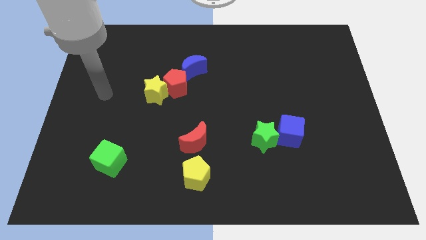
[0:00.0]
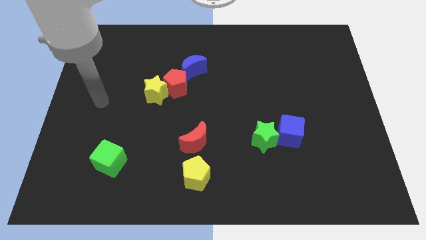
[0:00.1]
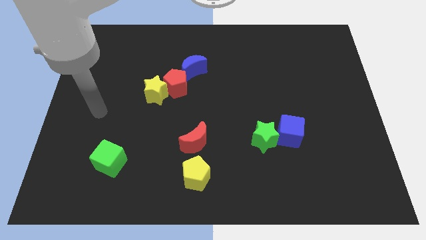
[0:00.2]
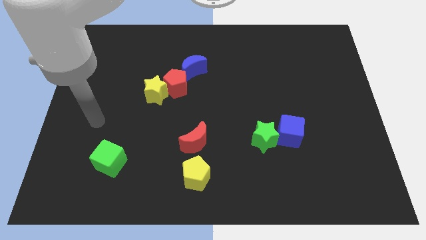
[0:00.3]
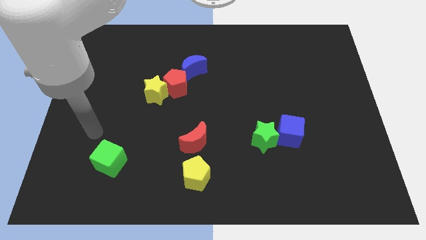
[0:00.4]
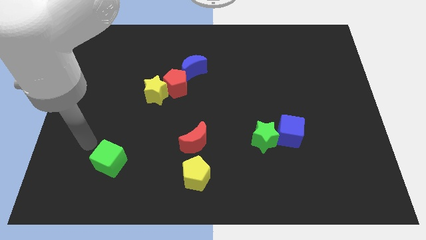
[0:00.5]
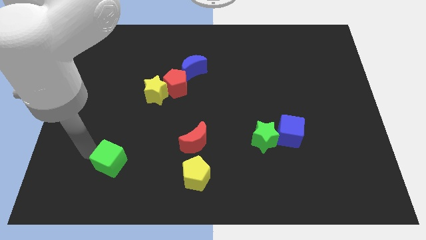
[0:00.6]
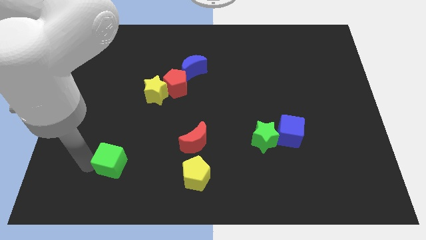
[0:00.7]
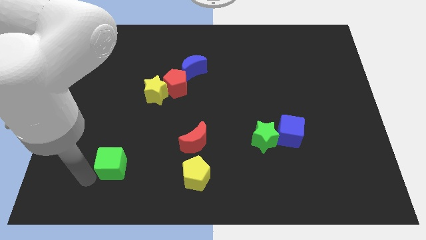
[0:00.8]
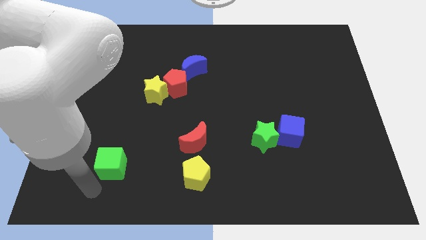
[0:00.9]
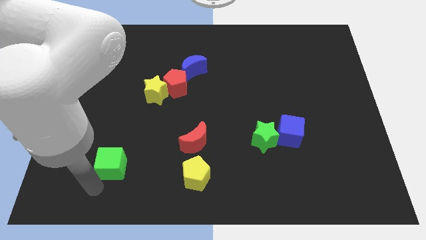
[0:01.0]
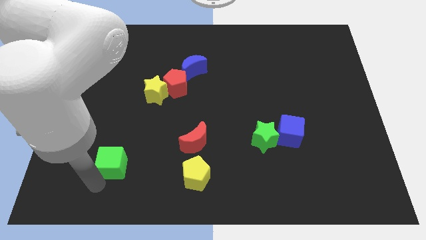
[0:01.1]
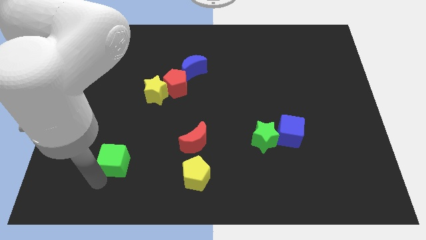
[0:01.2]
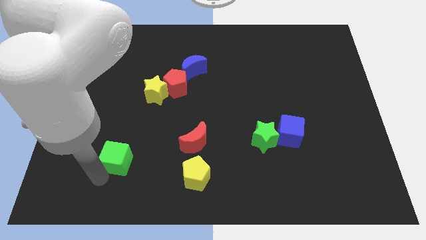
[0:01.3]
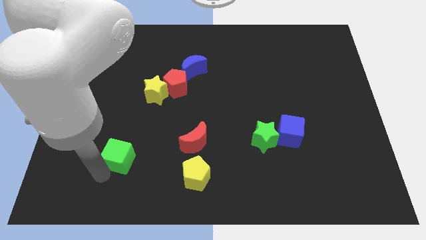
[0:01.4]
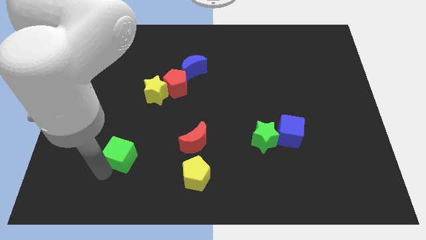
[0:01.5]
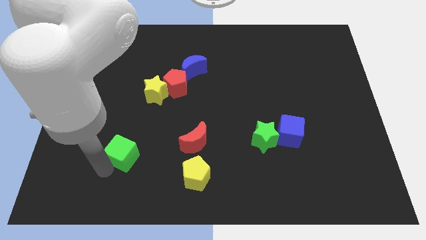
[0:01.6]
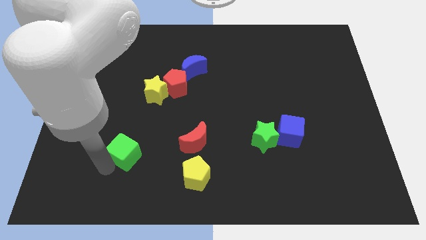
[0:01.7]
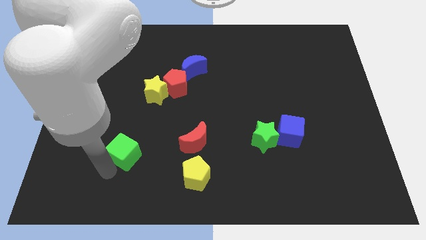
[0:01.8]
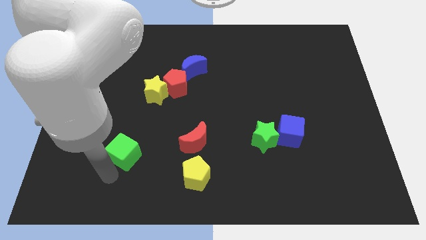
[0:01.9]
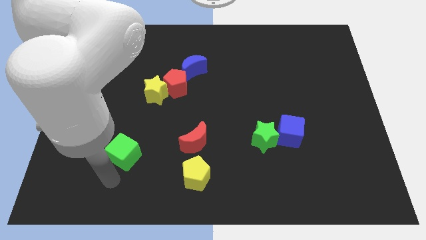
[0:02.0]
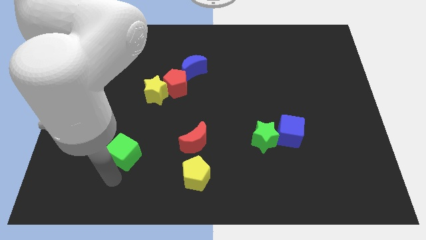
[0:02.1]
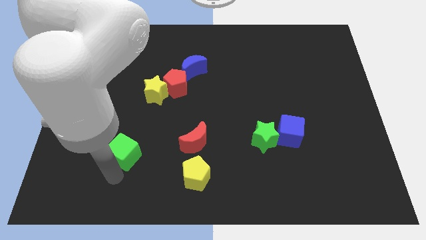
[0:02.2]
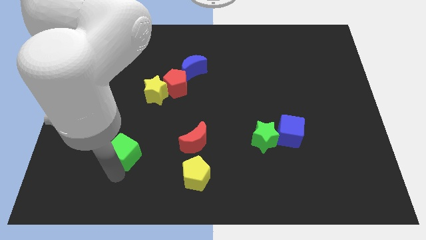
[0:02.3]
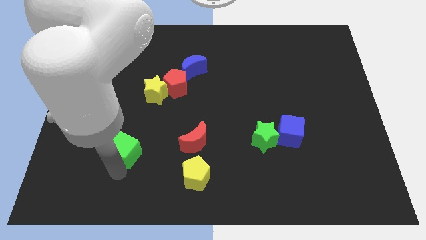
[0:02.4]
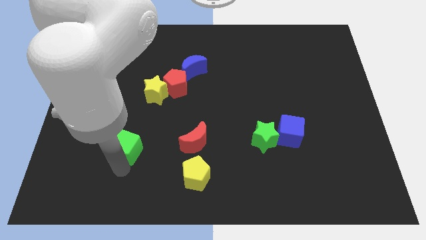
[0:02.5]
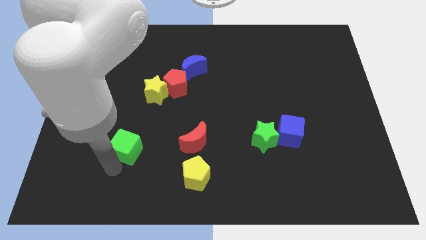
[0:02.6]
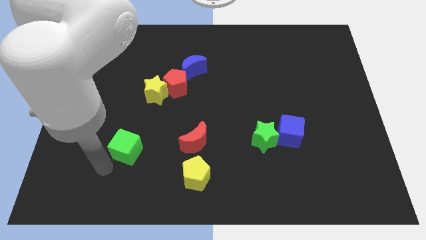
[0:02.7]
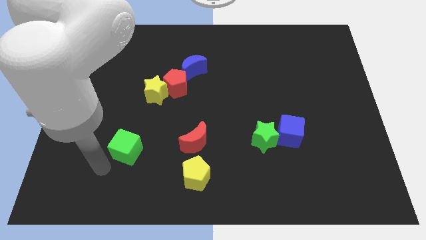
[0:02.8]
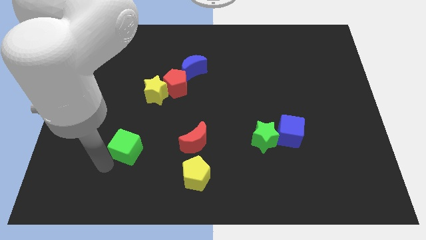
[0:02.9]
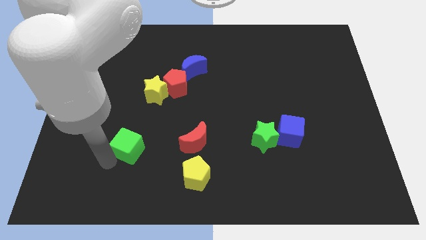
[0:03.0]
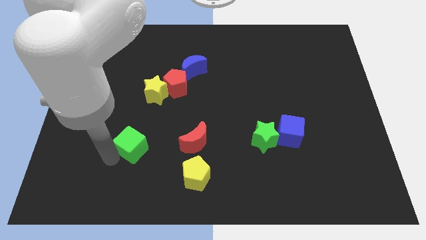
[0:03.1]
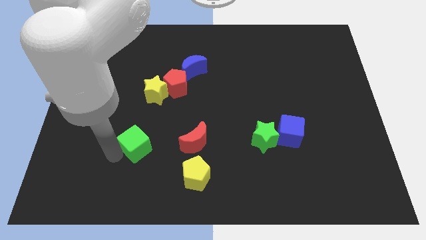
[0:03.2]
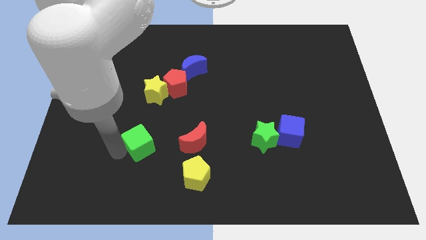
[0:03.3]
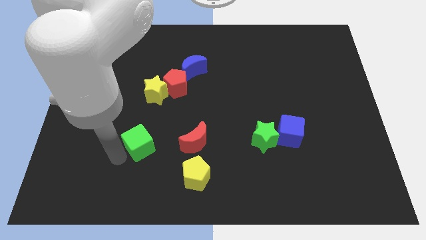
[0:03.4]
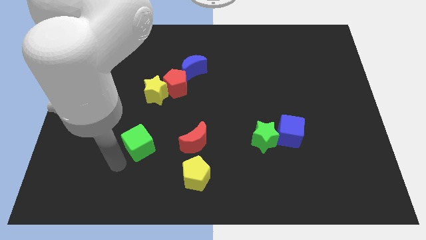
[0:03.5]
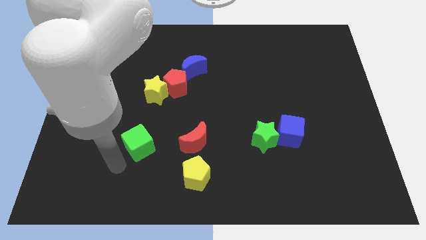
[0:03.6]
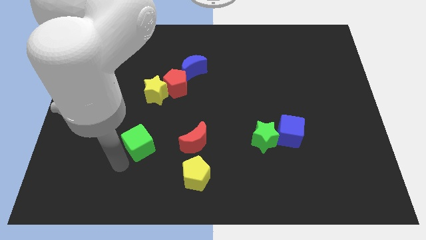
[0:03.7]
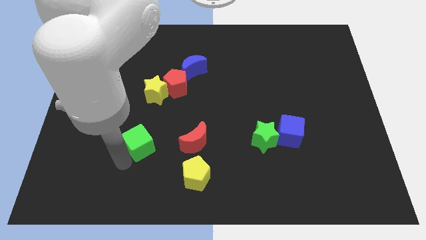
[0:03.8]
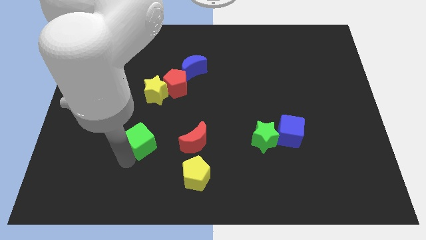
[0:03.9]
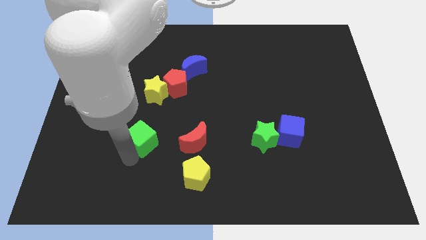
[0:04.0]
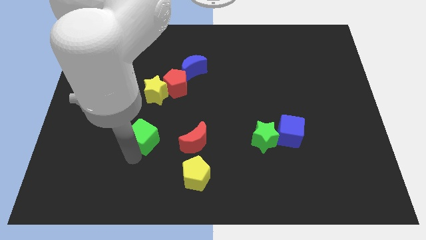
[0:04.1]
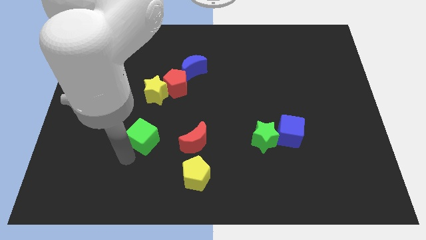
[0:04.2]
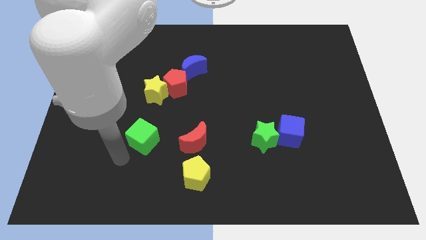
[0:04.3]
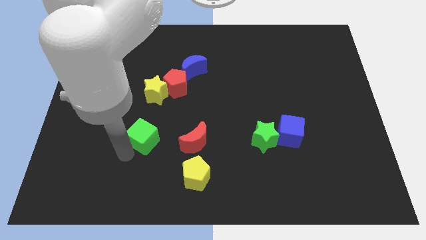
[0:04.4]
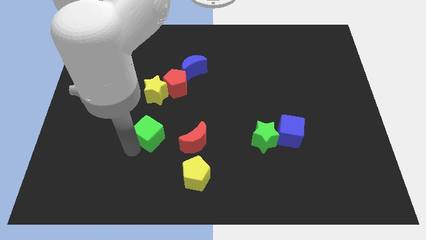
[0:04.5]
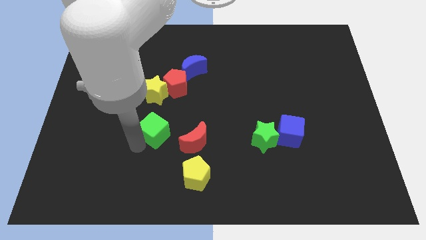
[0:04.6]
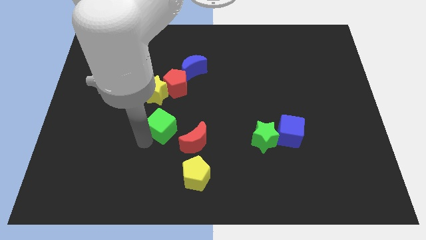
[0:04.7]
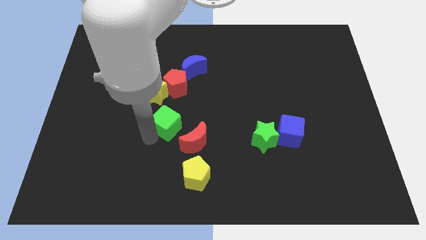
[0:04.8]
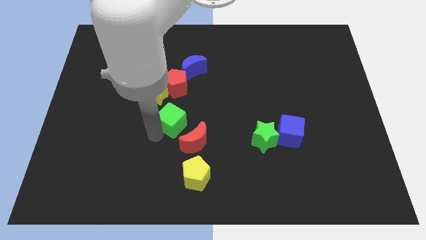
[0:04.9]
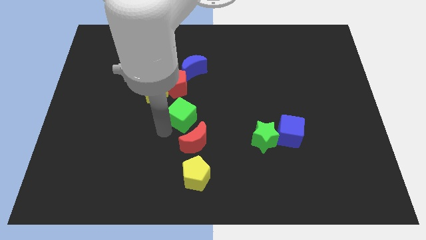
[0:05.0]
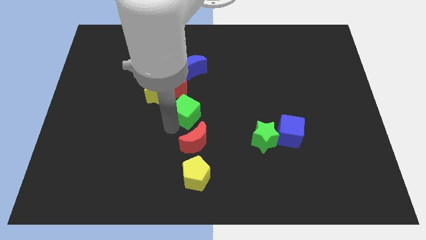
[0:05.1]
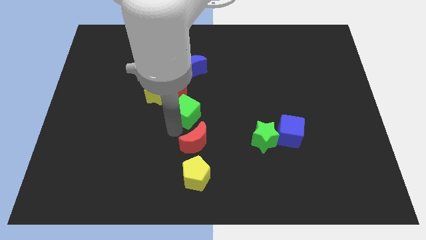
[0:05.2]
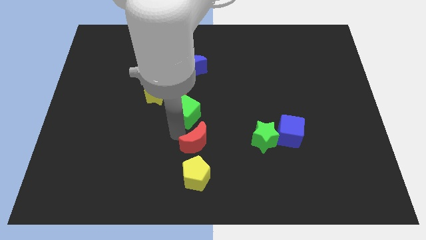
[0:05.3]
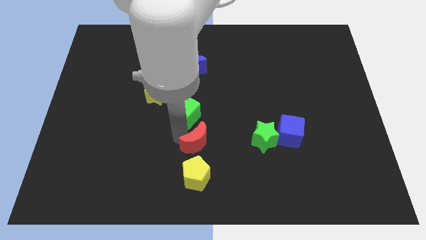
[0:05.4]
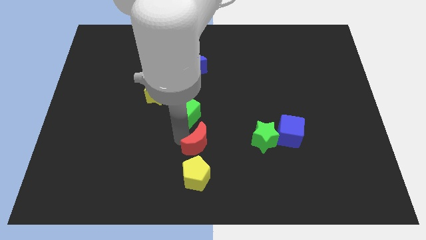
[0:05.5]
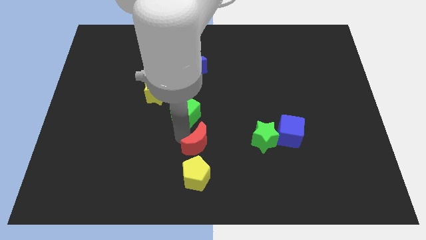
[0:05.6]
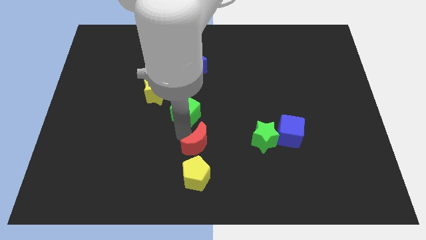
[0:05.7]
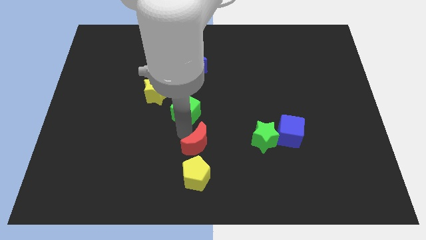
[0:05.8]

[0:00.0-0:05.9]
slide the green cube up and then to the right

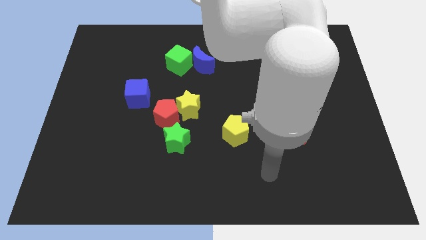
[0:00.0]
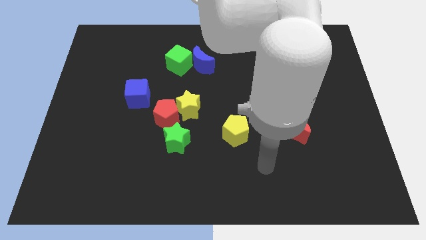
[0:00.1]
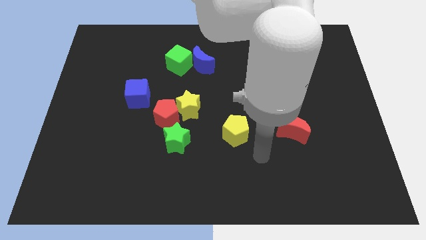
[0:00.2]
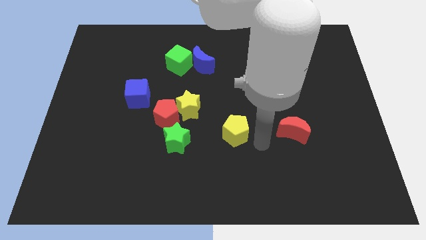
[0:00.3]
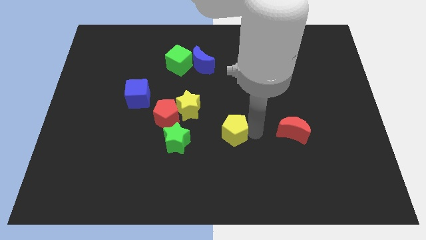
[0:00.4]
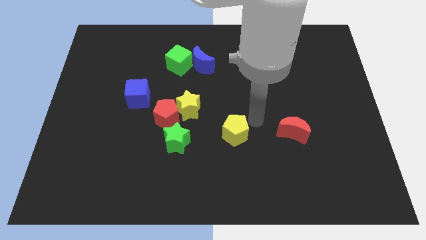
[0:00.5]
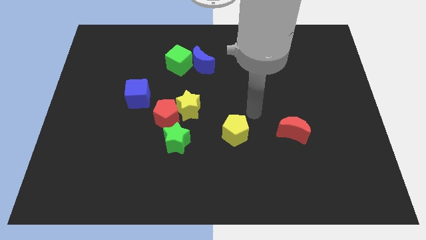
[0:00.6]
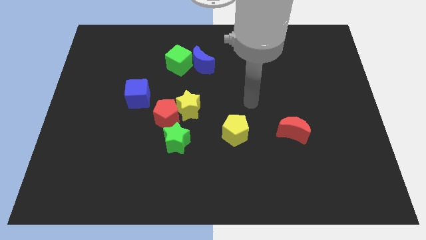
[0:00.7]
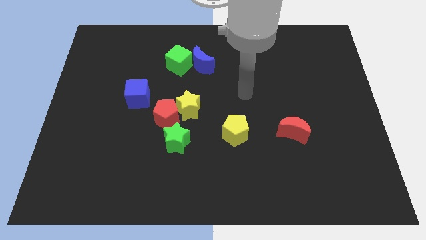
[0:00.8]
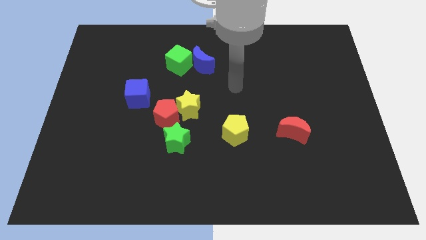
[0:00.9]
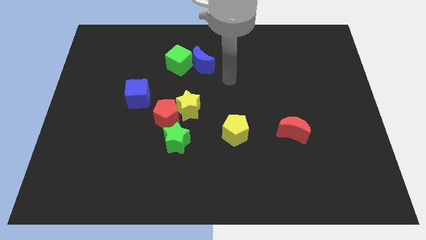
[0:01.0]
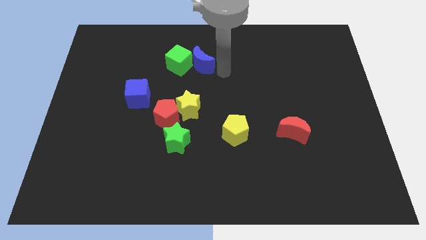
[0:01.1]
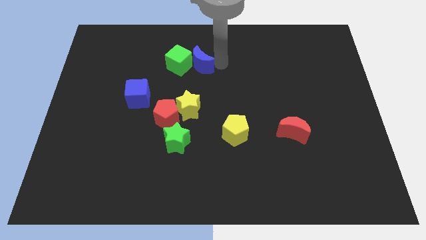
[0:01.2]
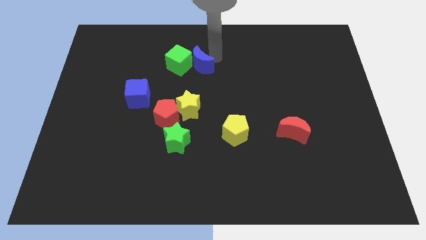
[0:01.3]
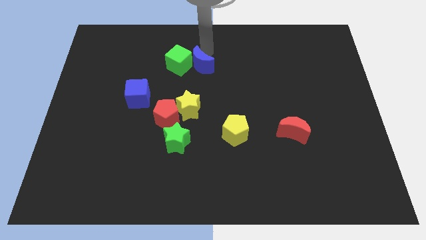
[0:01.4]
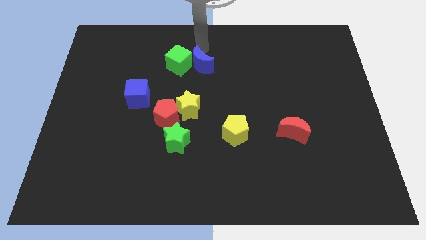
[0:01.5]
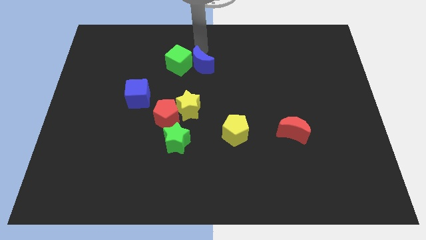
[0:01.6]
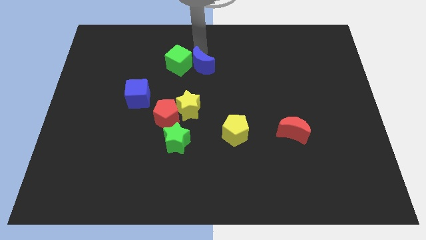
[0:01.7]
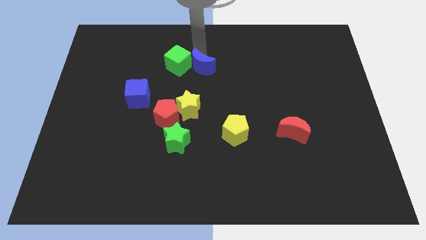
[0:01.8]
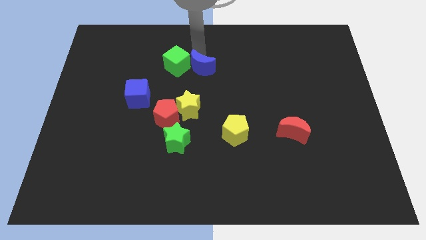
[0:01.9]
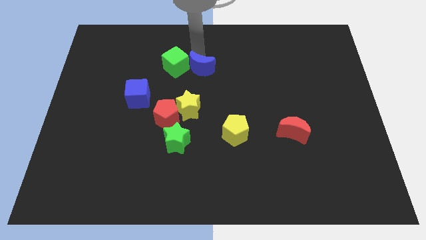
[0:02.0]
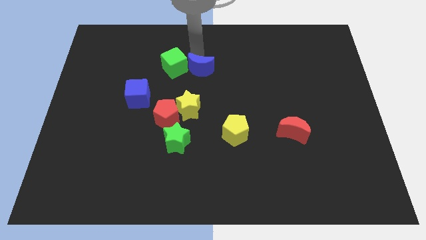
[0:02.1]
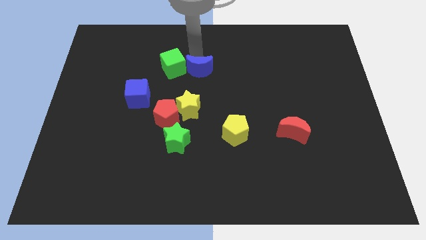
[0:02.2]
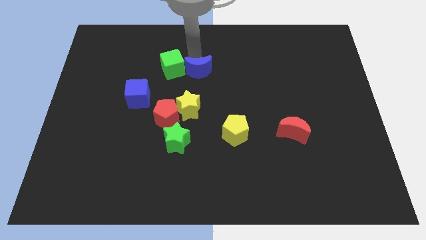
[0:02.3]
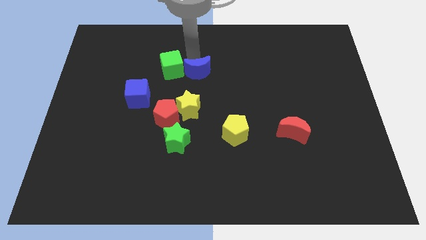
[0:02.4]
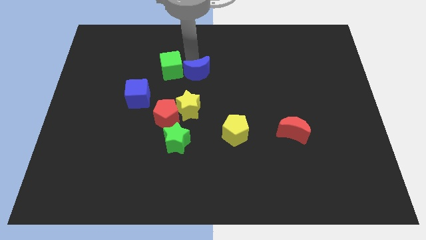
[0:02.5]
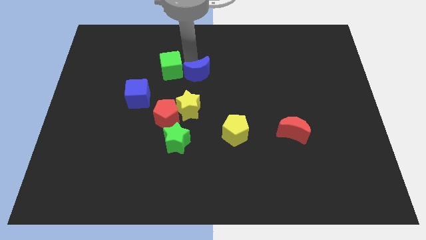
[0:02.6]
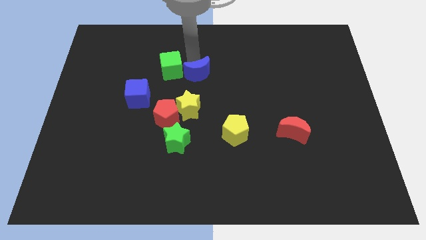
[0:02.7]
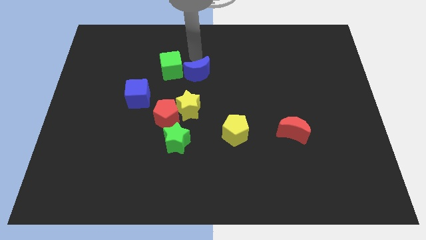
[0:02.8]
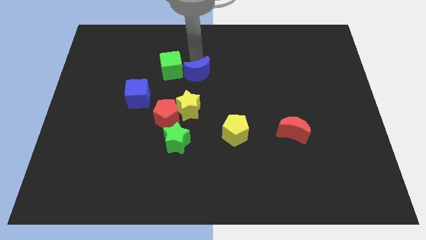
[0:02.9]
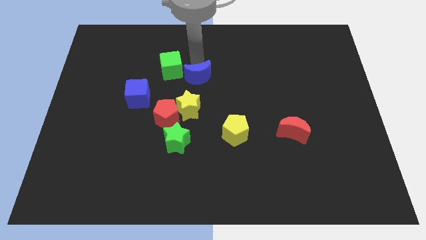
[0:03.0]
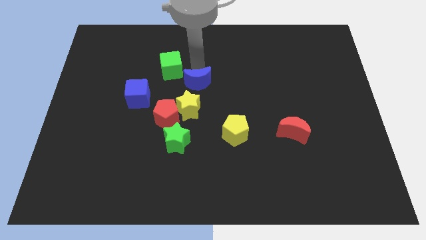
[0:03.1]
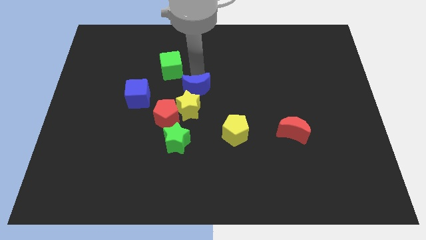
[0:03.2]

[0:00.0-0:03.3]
move the blue moon down somewhat
